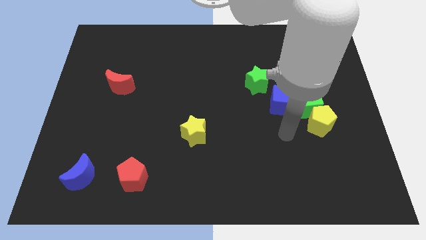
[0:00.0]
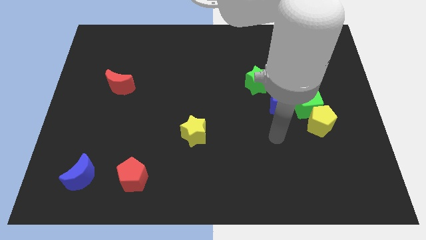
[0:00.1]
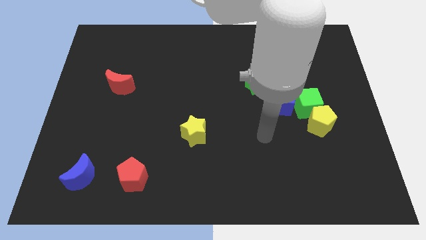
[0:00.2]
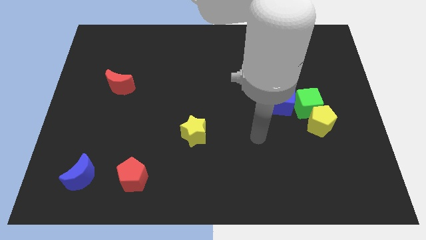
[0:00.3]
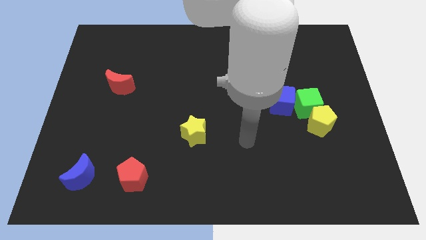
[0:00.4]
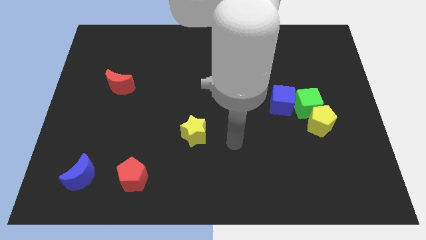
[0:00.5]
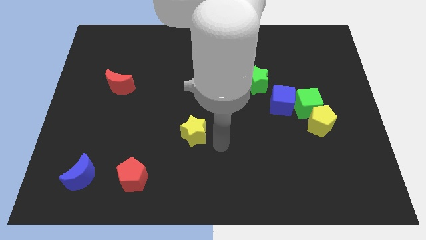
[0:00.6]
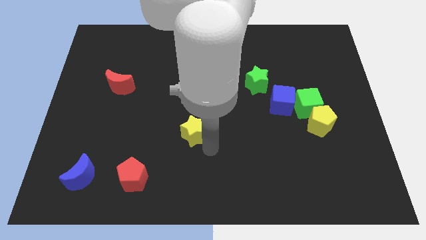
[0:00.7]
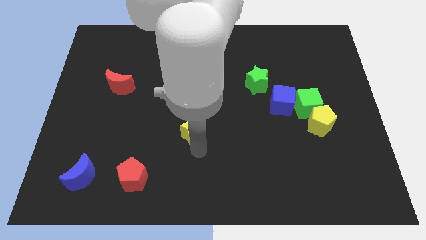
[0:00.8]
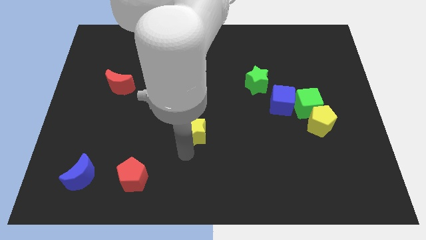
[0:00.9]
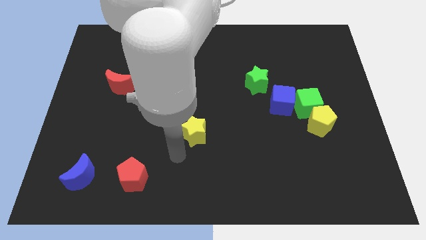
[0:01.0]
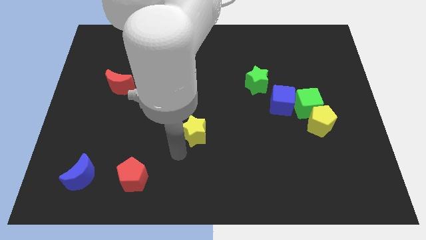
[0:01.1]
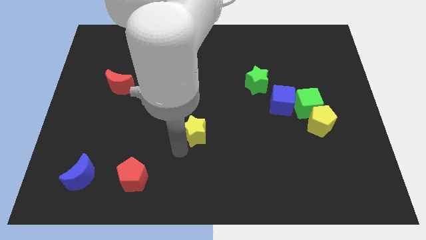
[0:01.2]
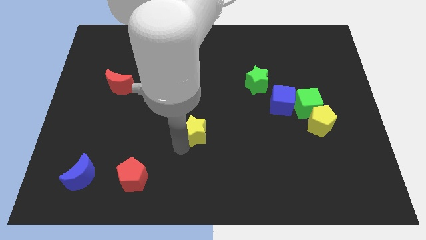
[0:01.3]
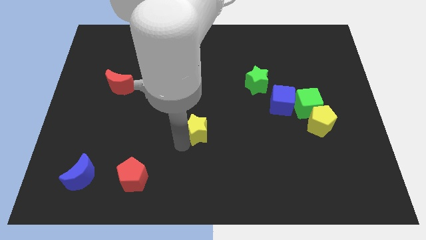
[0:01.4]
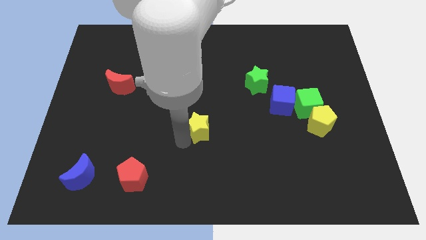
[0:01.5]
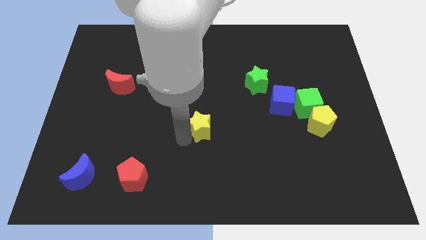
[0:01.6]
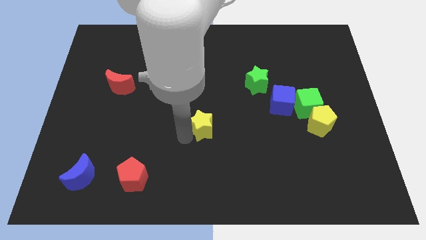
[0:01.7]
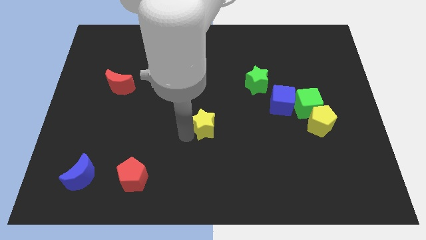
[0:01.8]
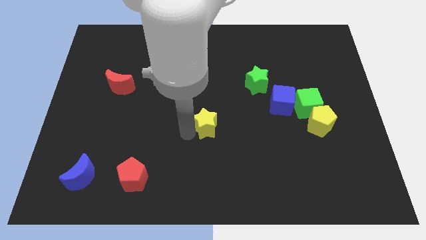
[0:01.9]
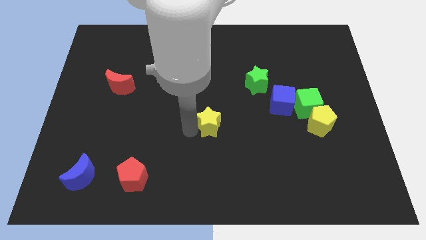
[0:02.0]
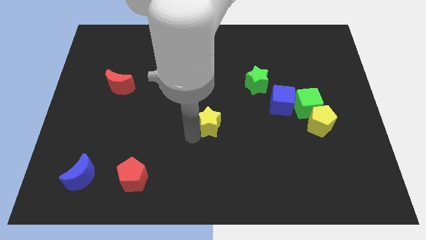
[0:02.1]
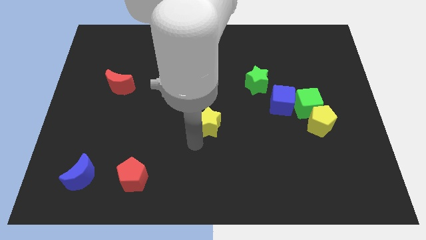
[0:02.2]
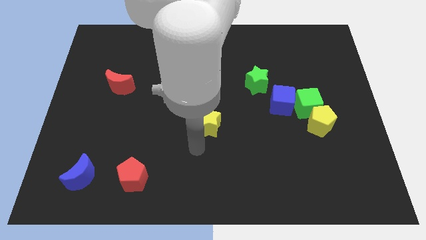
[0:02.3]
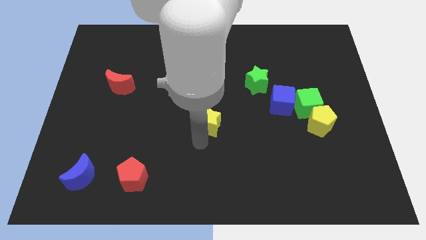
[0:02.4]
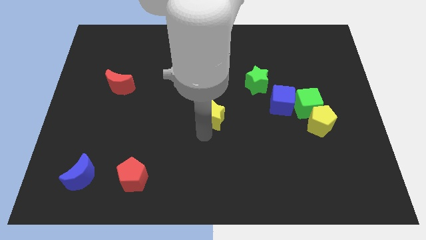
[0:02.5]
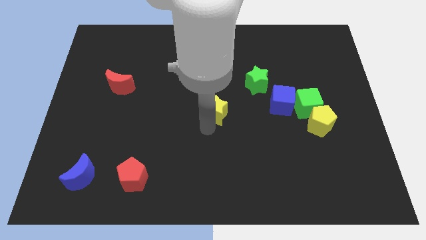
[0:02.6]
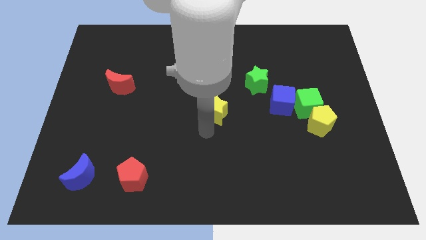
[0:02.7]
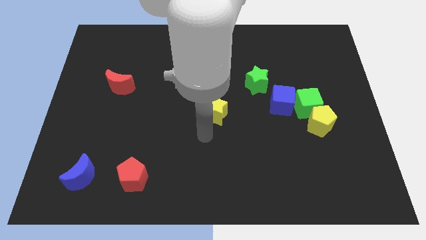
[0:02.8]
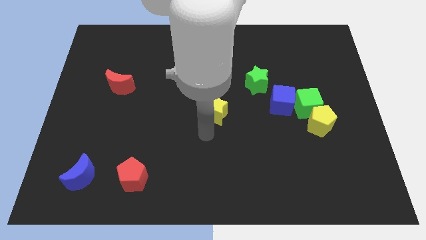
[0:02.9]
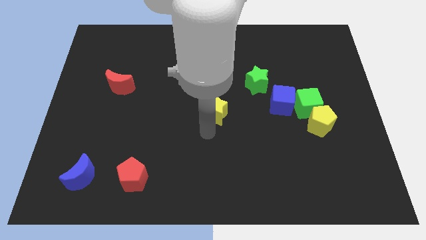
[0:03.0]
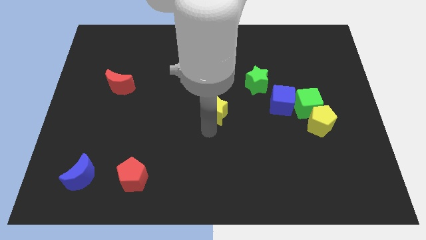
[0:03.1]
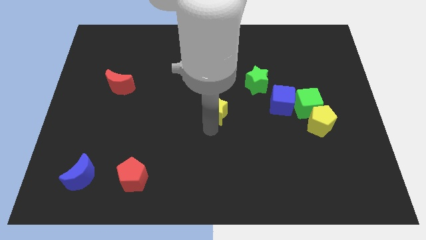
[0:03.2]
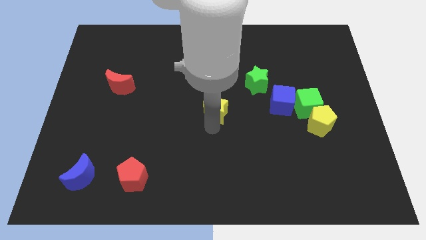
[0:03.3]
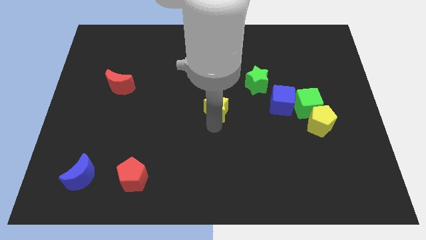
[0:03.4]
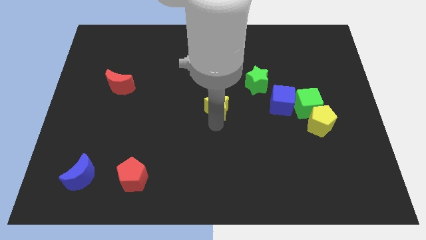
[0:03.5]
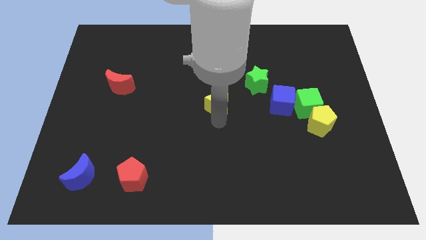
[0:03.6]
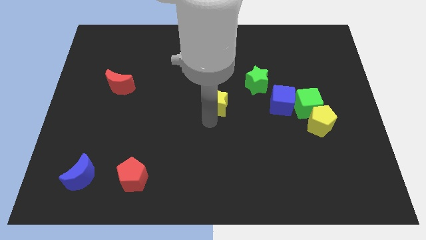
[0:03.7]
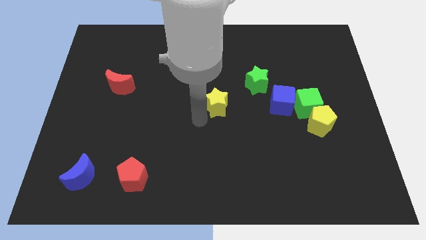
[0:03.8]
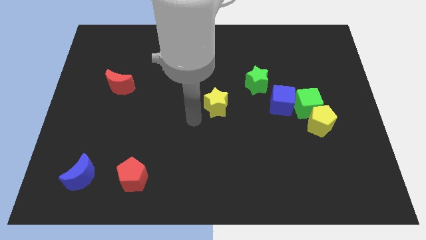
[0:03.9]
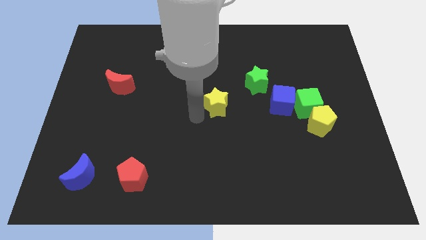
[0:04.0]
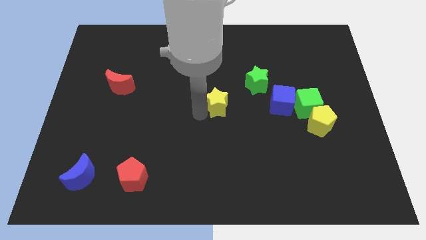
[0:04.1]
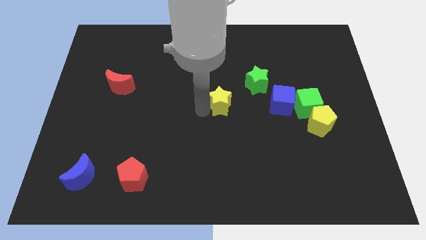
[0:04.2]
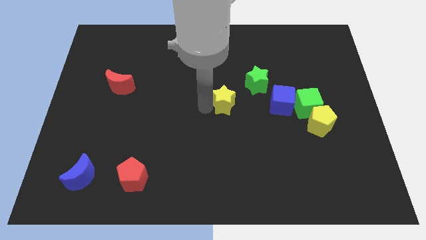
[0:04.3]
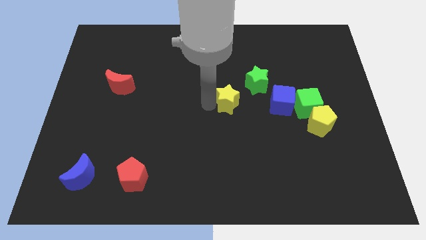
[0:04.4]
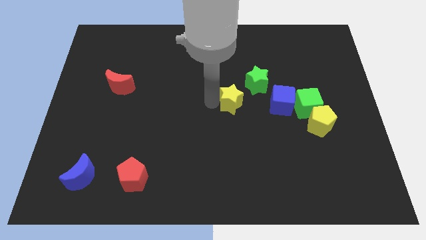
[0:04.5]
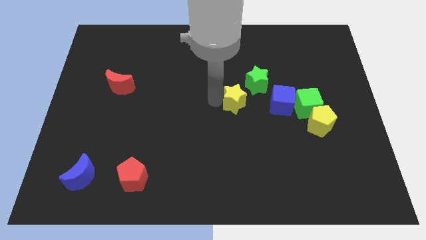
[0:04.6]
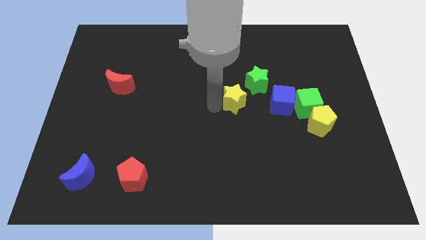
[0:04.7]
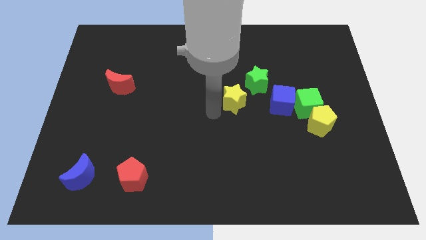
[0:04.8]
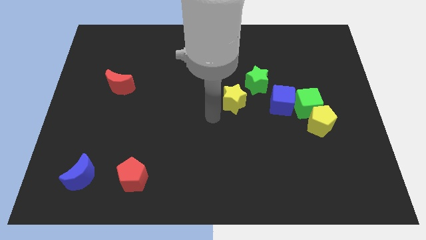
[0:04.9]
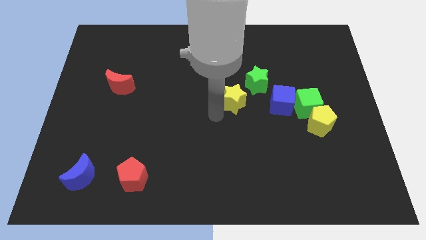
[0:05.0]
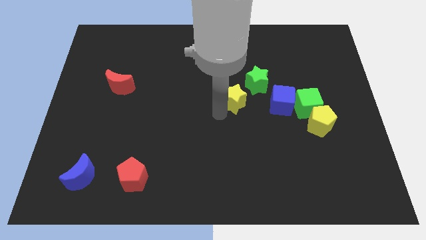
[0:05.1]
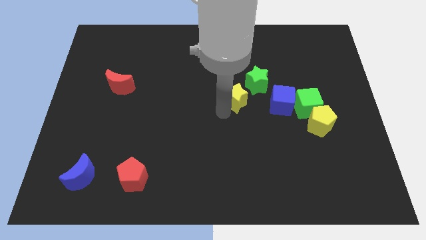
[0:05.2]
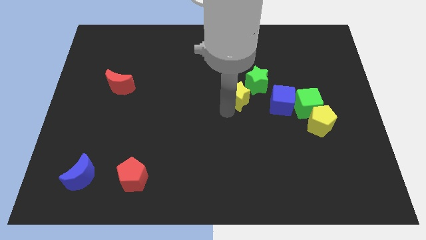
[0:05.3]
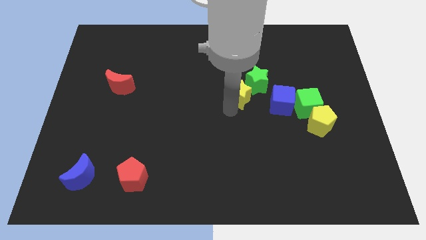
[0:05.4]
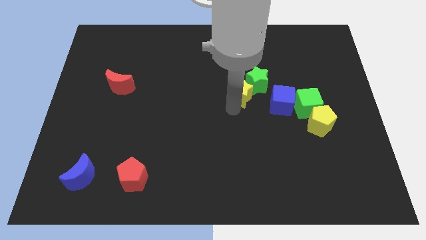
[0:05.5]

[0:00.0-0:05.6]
push the yellow star next to the green star

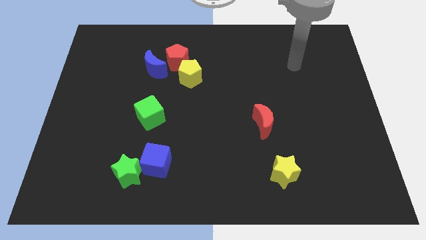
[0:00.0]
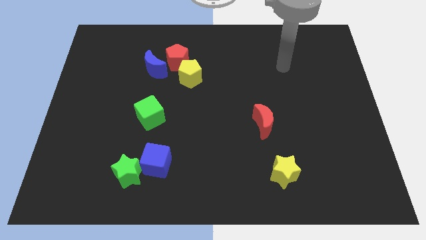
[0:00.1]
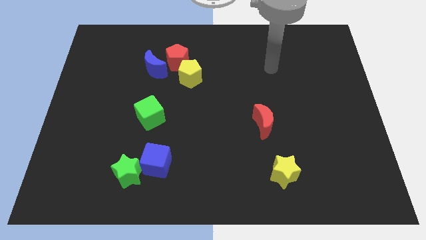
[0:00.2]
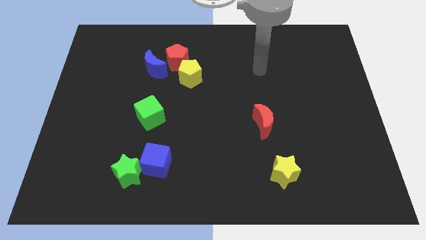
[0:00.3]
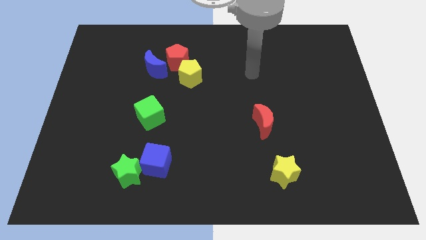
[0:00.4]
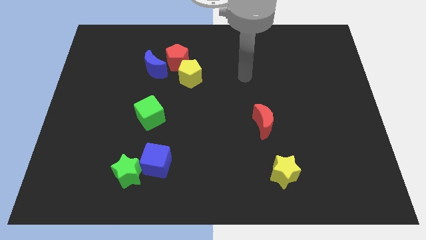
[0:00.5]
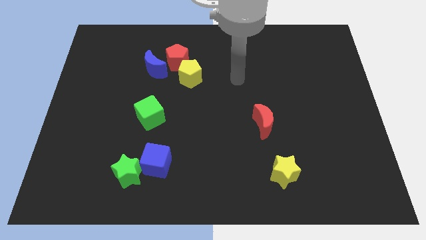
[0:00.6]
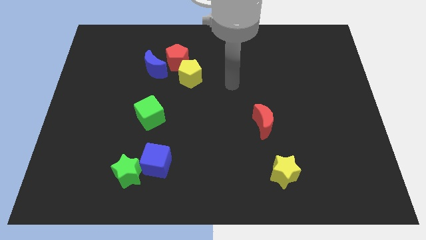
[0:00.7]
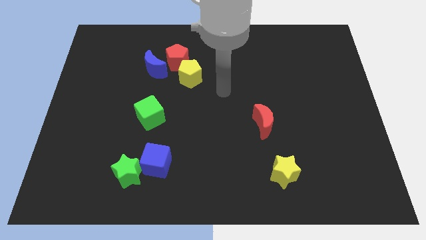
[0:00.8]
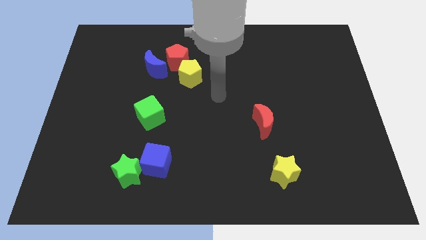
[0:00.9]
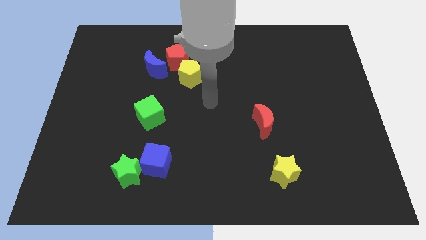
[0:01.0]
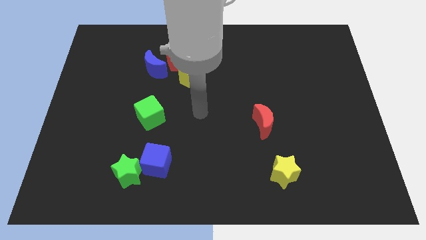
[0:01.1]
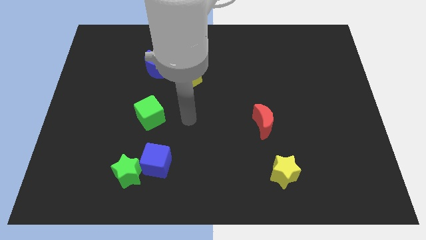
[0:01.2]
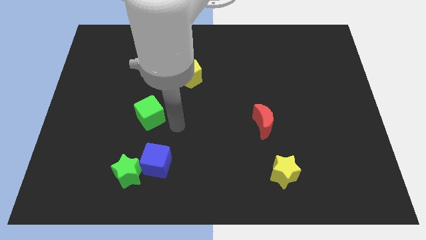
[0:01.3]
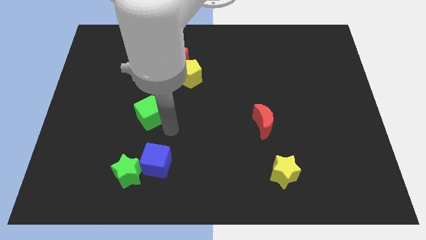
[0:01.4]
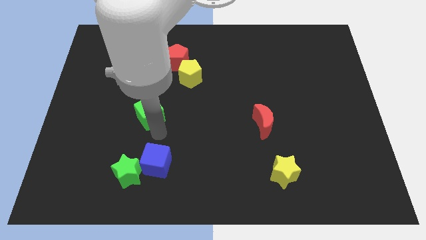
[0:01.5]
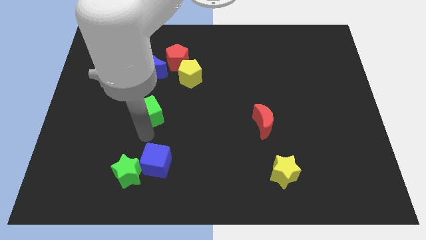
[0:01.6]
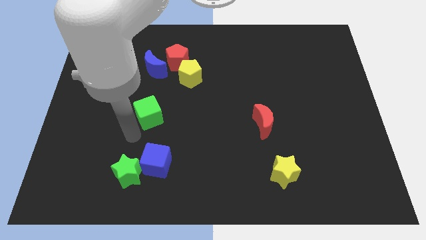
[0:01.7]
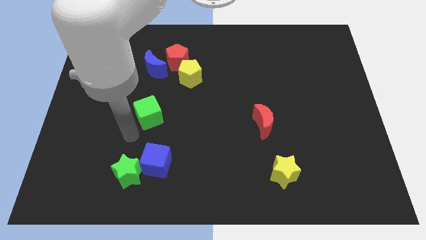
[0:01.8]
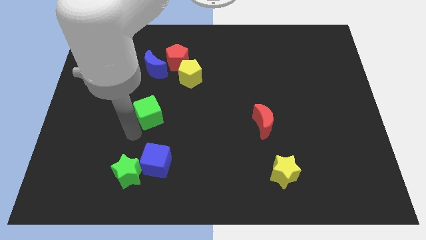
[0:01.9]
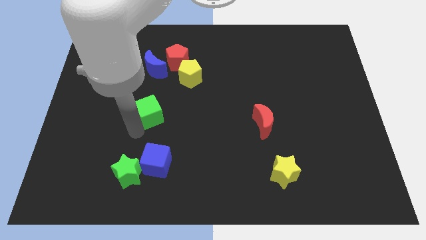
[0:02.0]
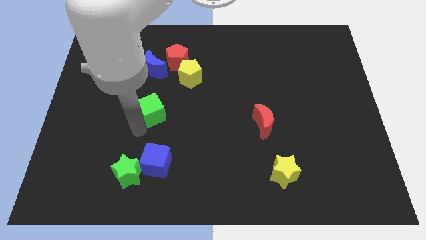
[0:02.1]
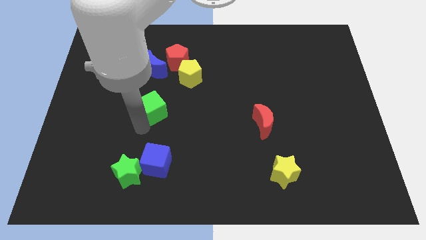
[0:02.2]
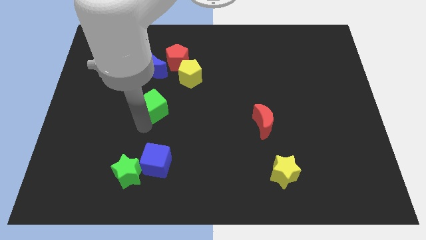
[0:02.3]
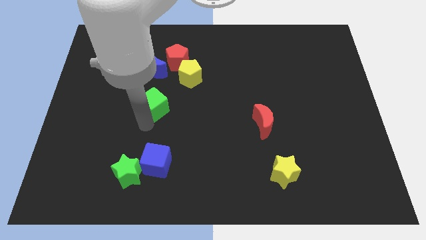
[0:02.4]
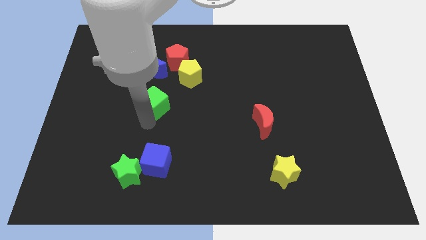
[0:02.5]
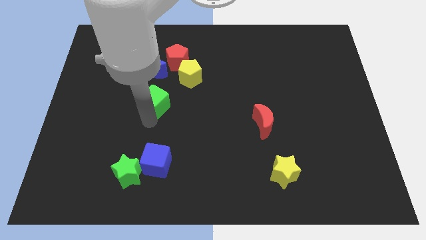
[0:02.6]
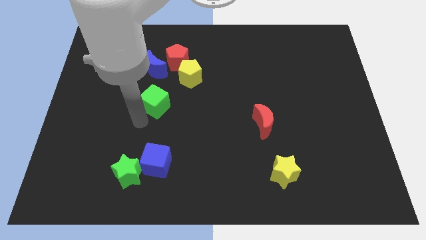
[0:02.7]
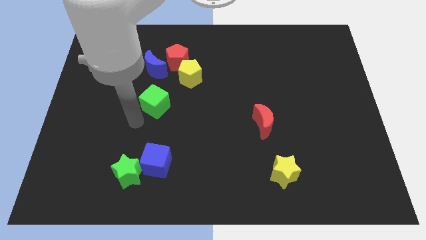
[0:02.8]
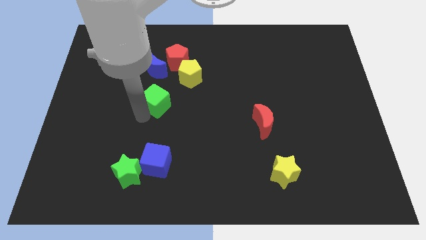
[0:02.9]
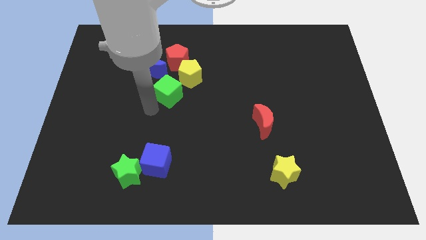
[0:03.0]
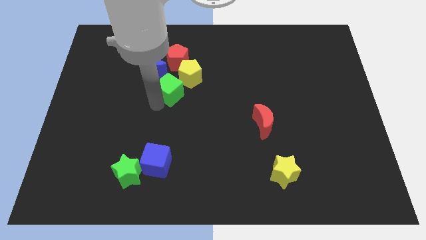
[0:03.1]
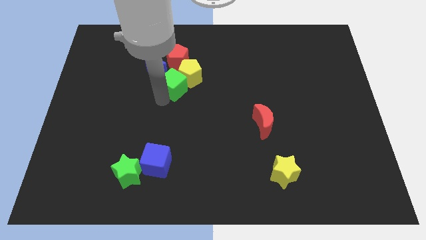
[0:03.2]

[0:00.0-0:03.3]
move the green cube close to the yellow pentagon
